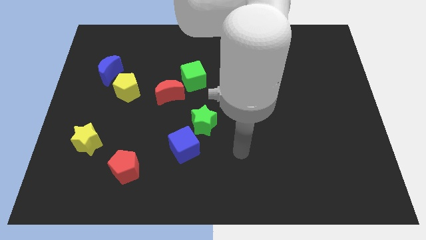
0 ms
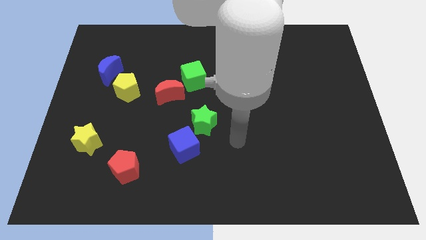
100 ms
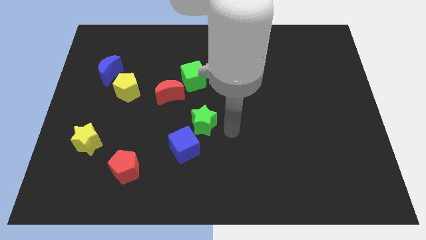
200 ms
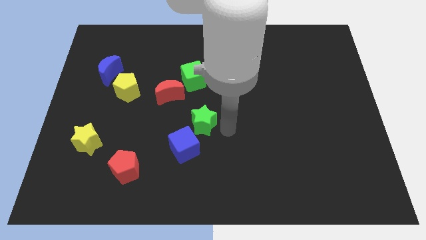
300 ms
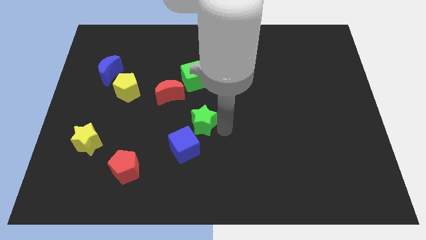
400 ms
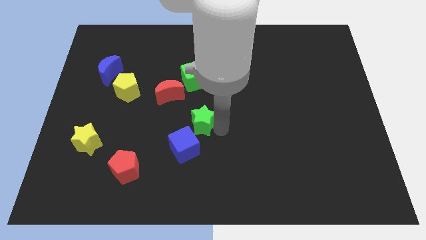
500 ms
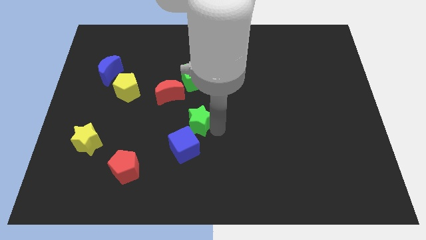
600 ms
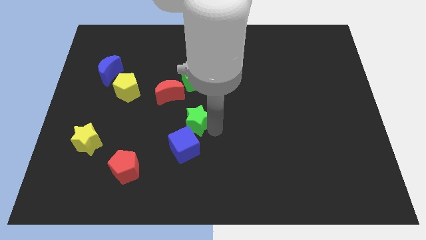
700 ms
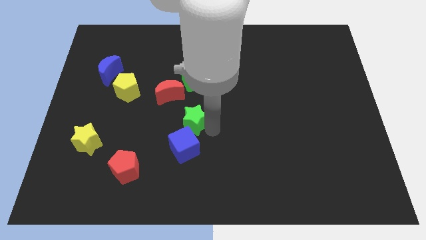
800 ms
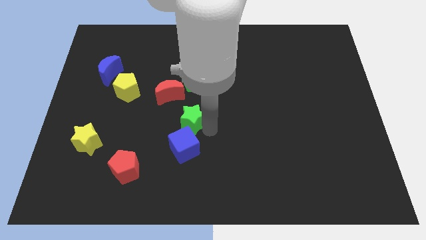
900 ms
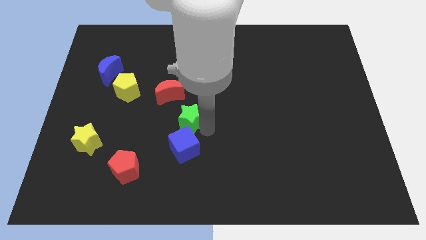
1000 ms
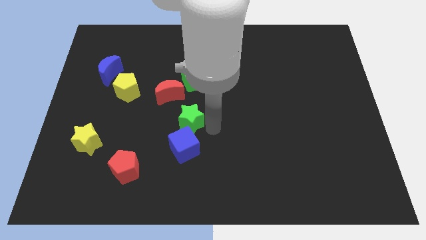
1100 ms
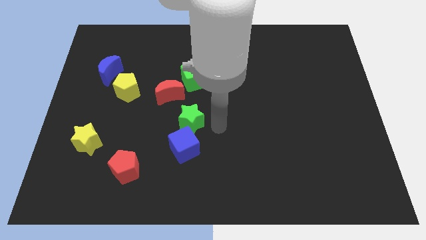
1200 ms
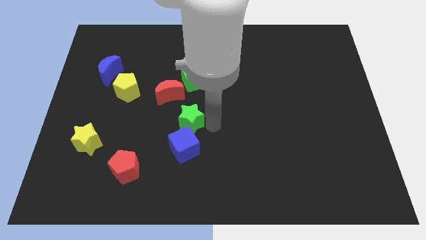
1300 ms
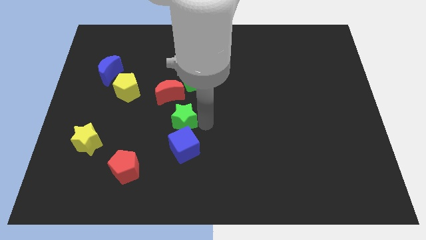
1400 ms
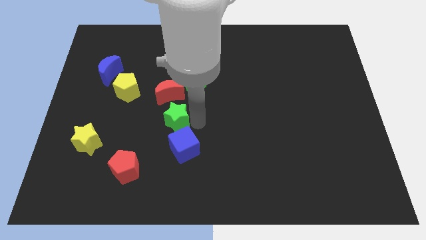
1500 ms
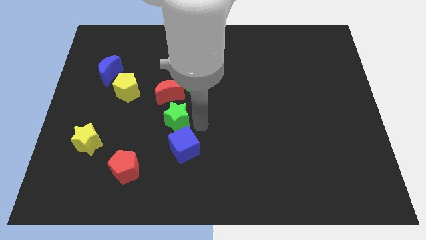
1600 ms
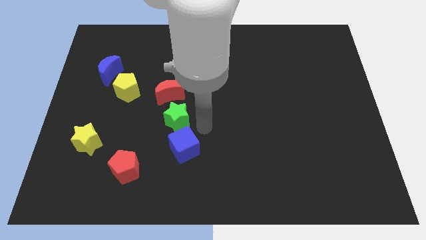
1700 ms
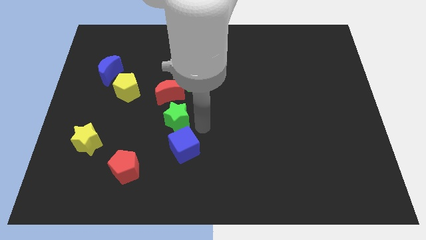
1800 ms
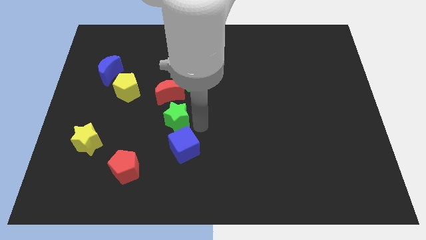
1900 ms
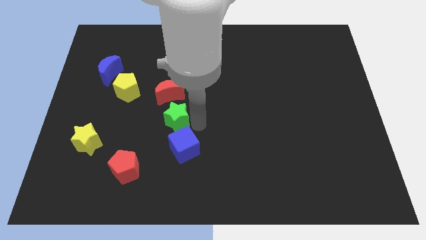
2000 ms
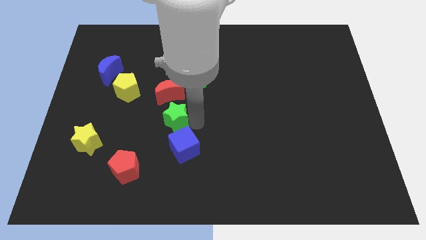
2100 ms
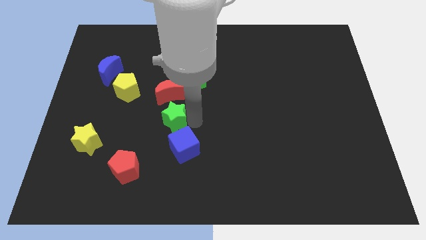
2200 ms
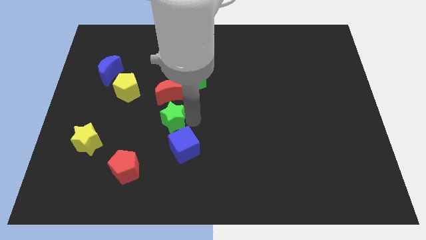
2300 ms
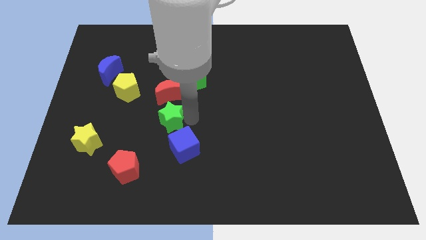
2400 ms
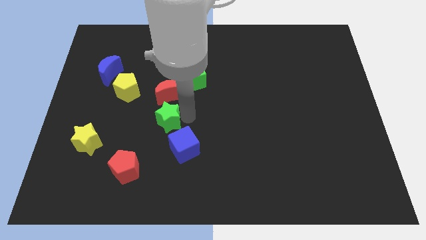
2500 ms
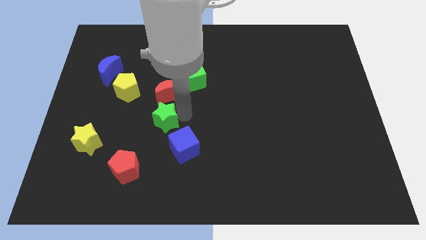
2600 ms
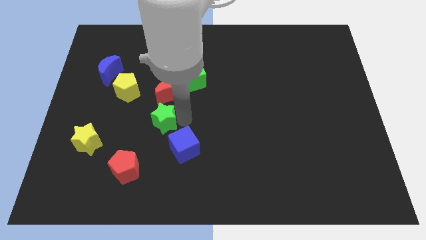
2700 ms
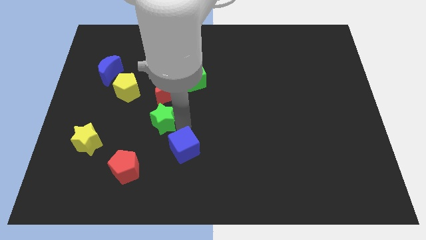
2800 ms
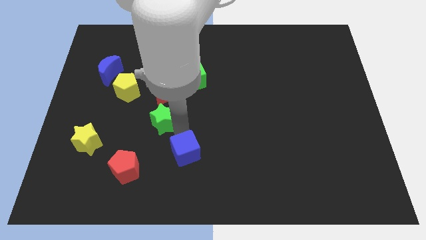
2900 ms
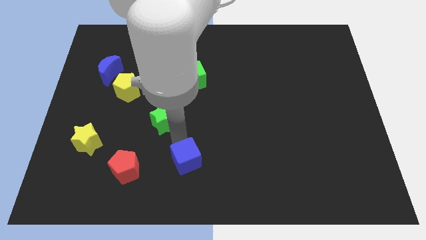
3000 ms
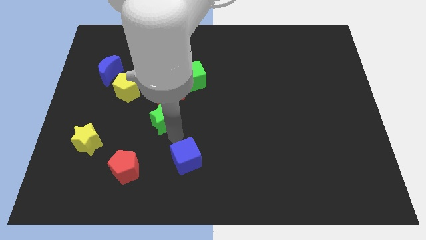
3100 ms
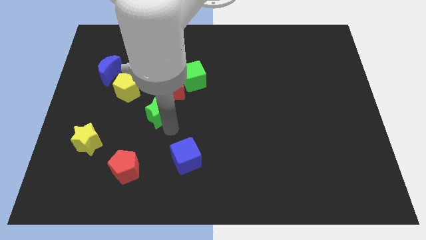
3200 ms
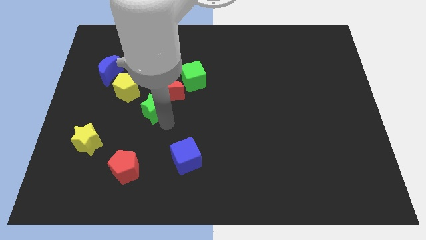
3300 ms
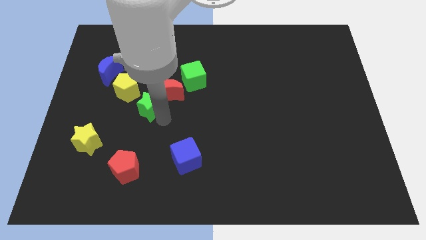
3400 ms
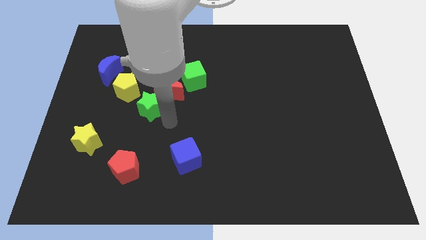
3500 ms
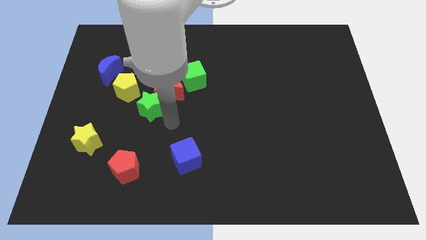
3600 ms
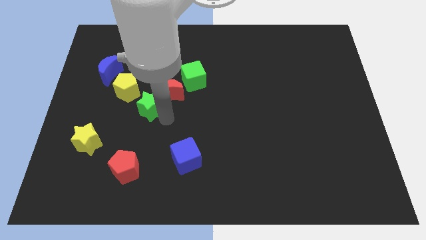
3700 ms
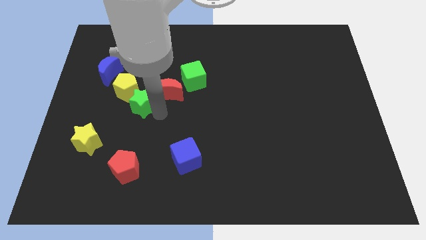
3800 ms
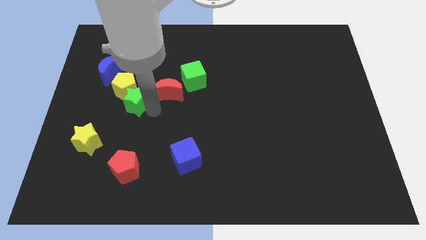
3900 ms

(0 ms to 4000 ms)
put the green star next to the yellow pentagon

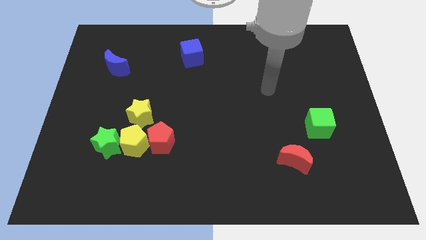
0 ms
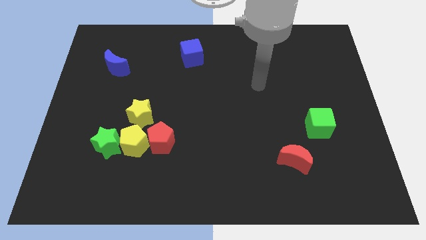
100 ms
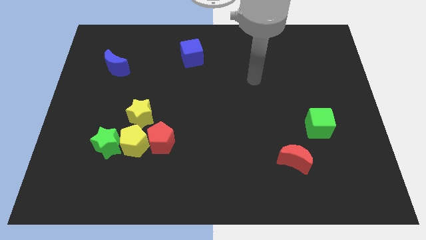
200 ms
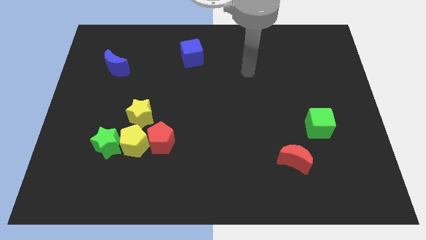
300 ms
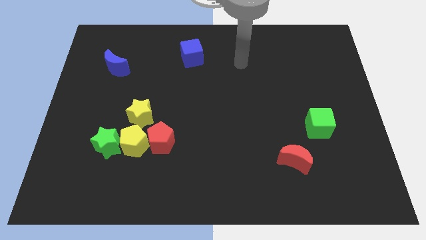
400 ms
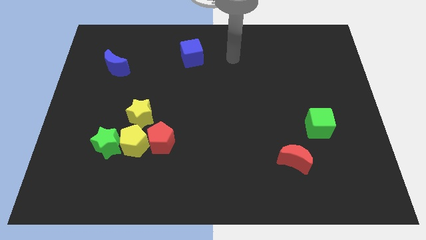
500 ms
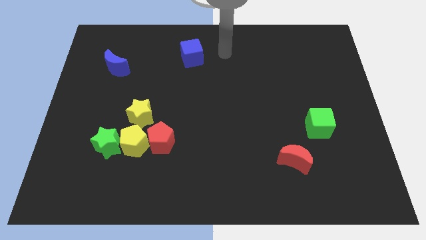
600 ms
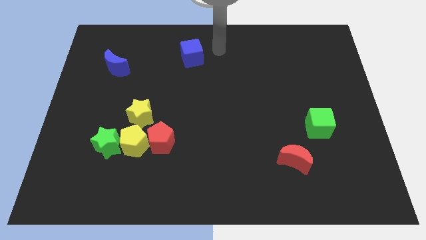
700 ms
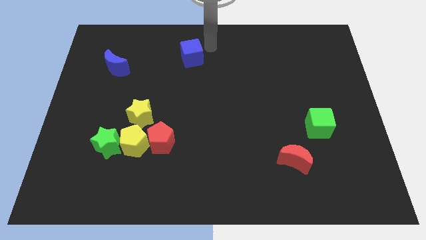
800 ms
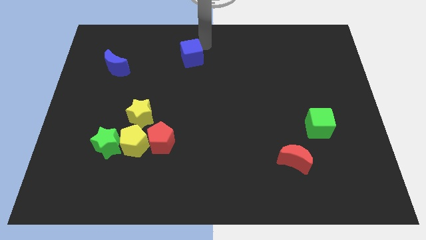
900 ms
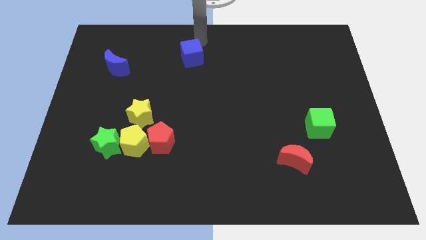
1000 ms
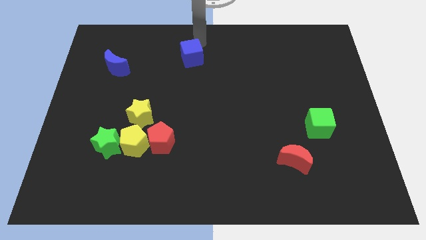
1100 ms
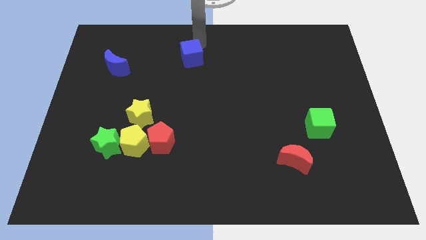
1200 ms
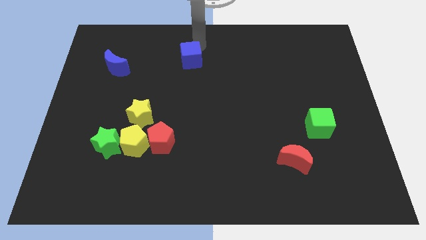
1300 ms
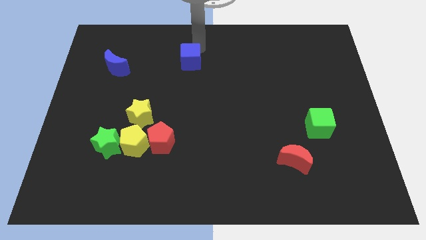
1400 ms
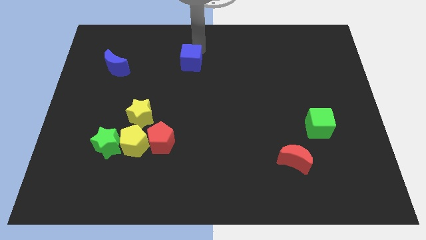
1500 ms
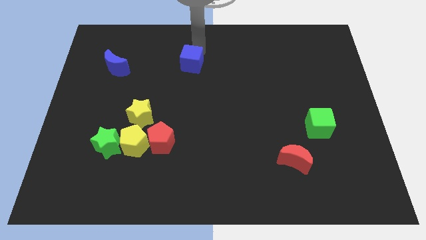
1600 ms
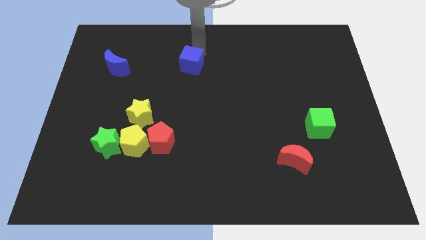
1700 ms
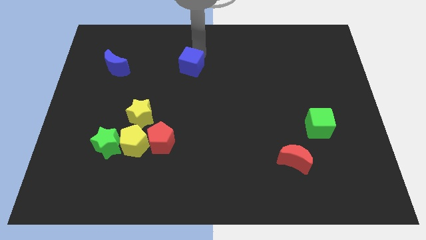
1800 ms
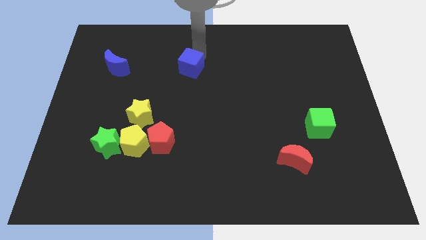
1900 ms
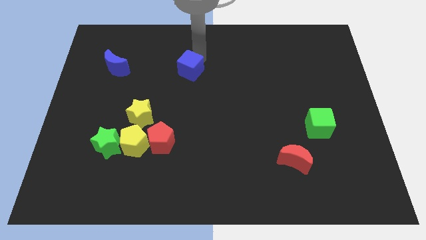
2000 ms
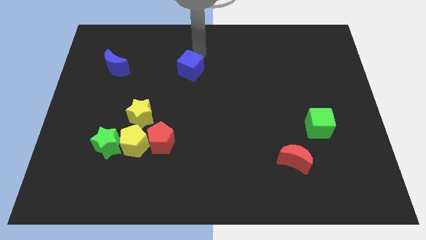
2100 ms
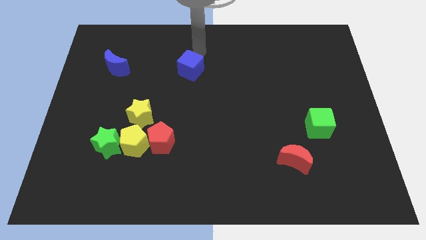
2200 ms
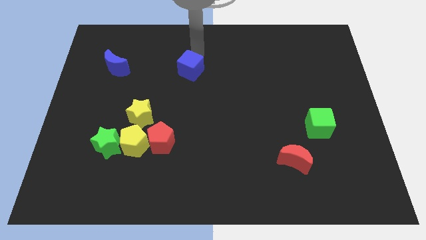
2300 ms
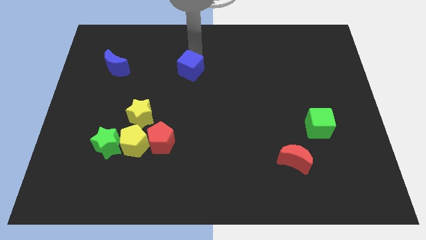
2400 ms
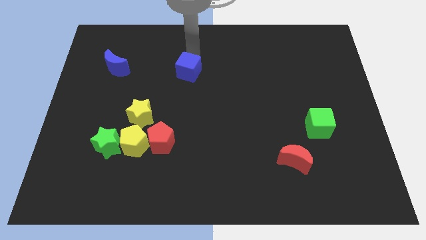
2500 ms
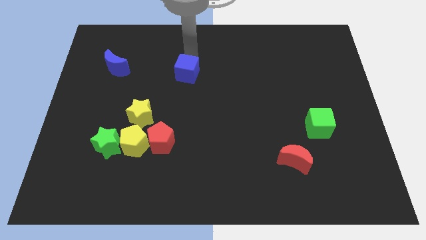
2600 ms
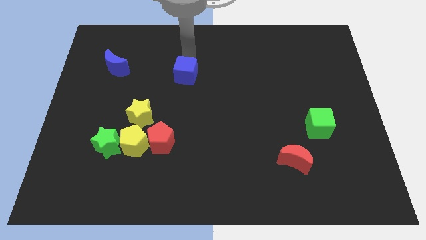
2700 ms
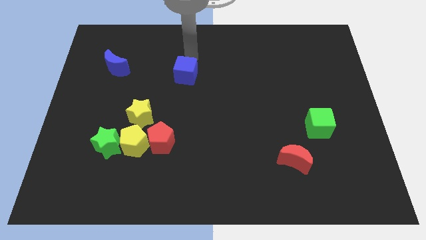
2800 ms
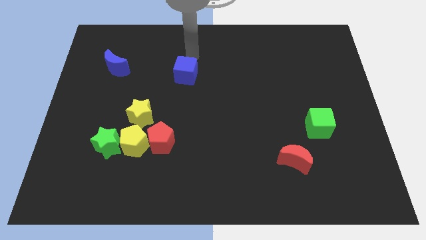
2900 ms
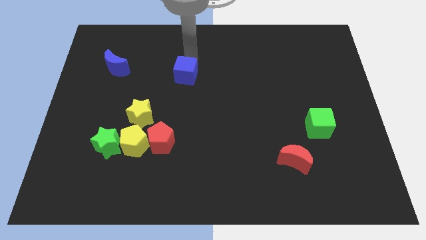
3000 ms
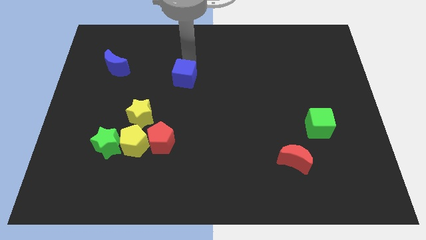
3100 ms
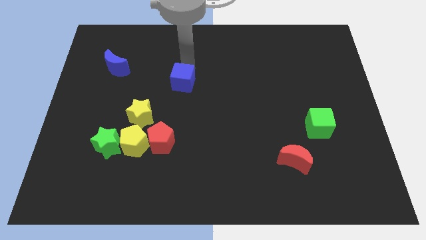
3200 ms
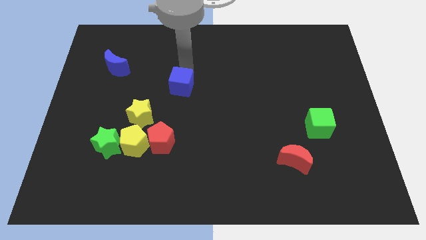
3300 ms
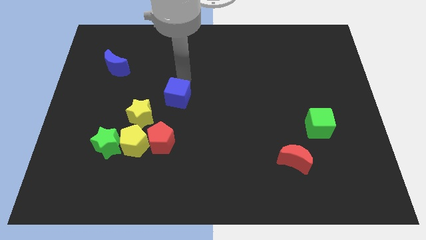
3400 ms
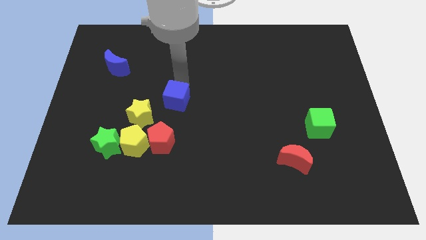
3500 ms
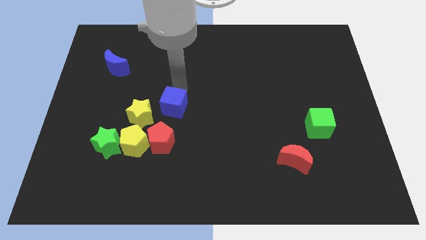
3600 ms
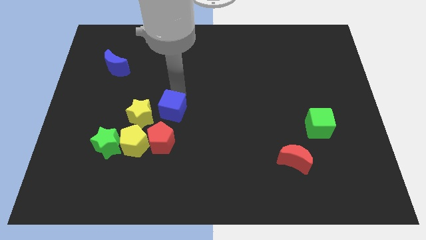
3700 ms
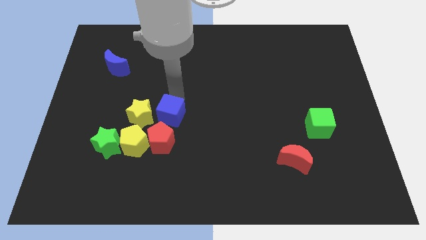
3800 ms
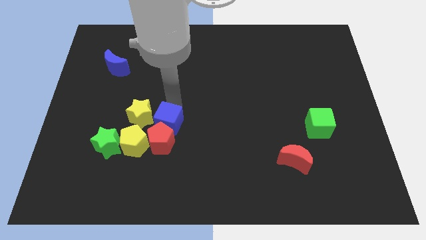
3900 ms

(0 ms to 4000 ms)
push the blue cube towards the red pentagon
